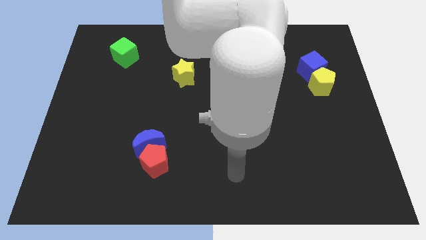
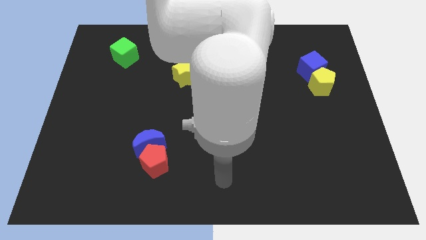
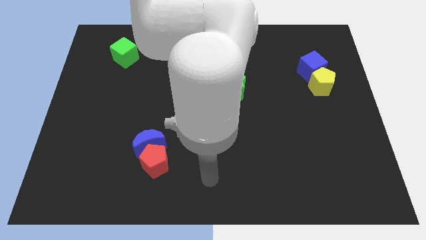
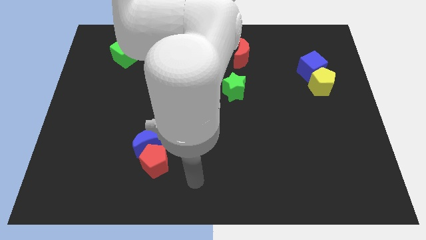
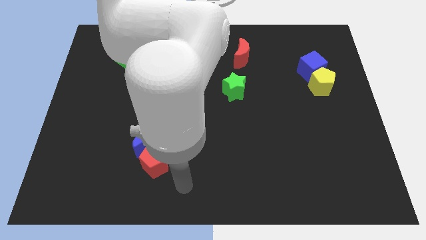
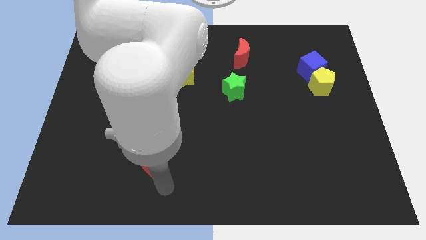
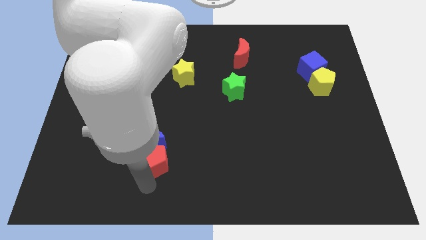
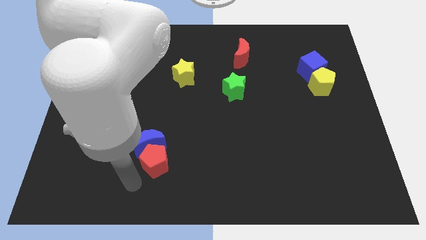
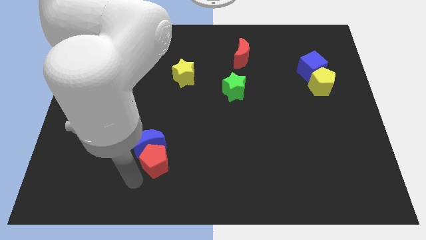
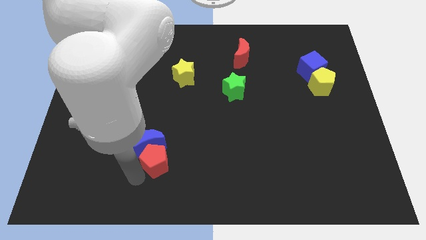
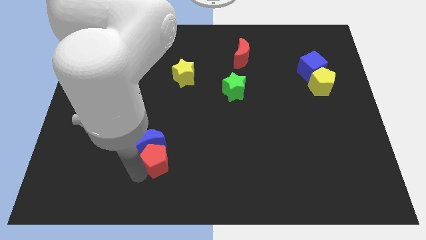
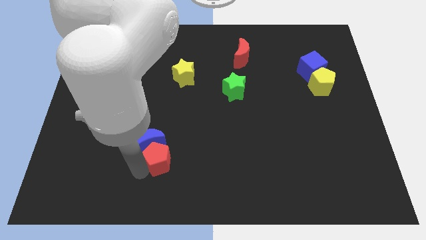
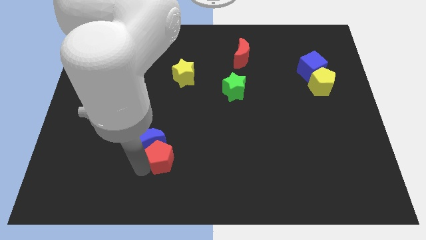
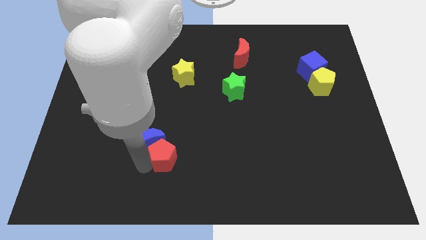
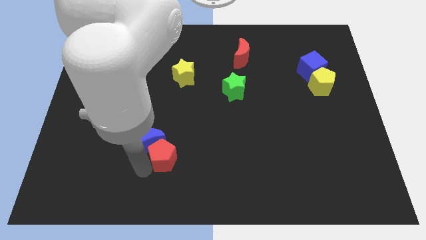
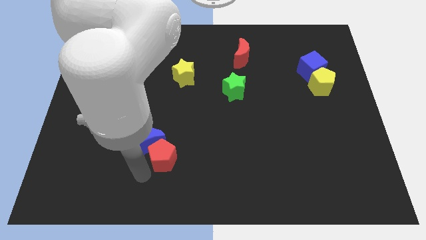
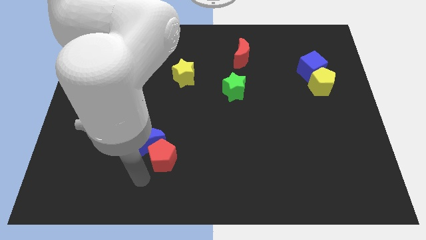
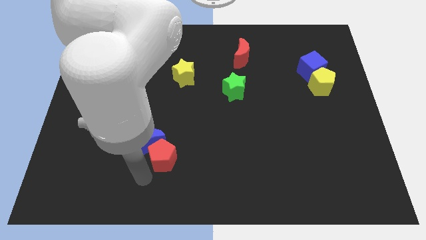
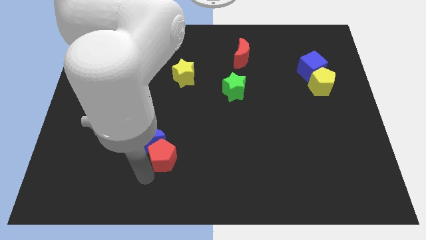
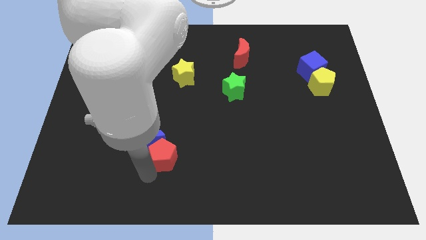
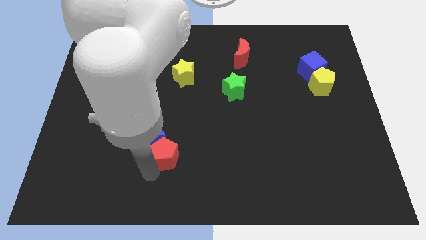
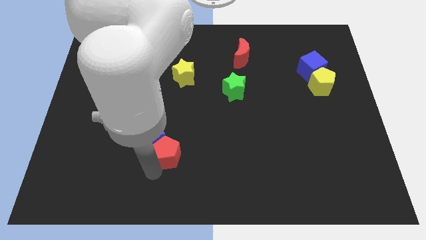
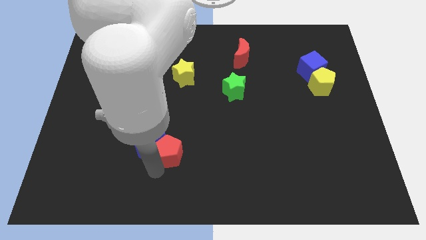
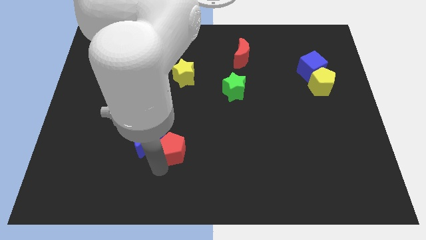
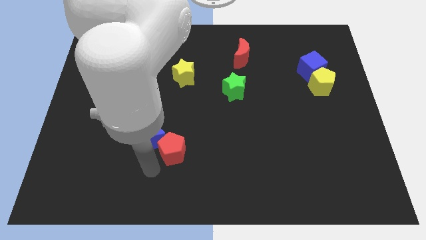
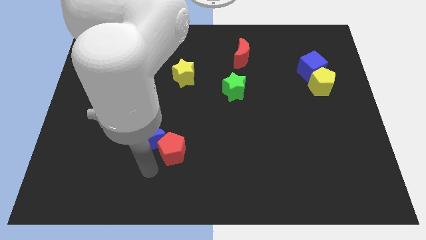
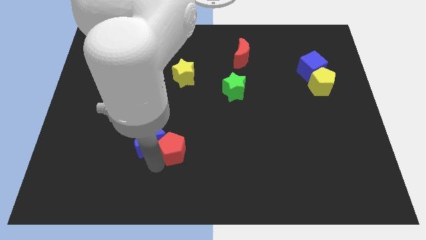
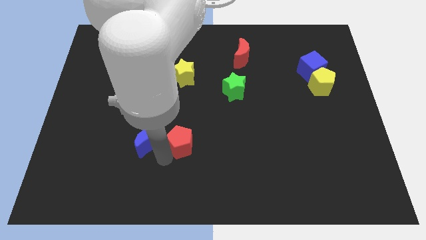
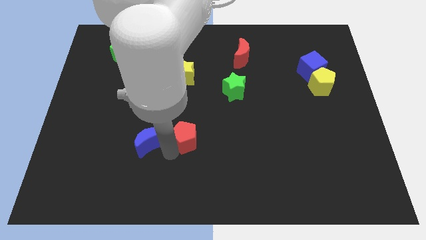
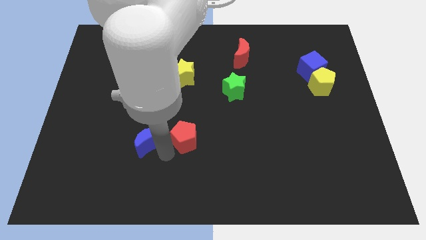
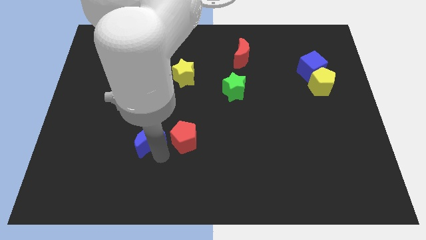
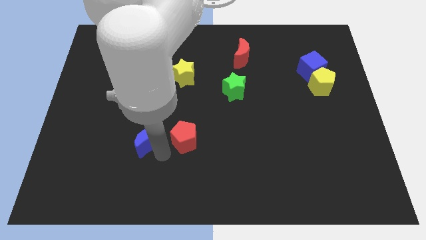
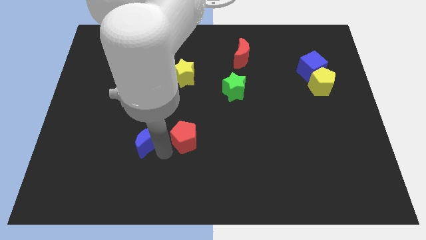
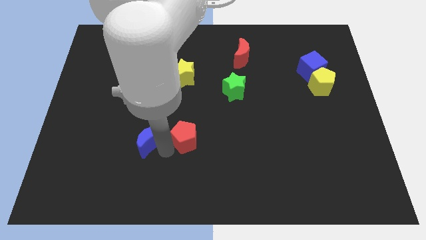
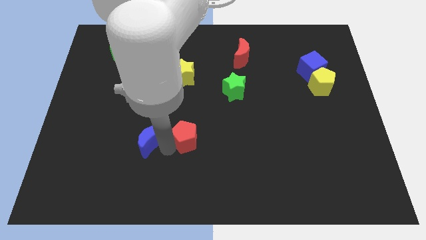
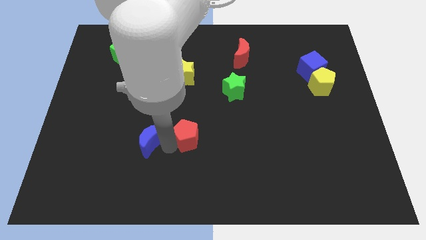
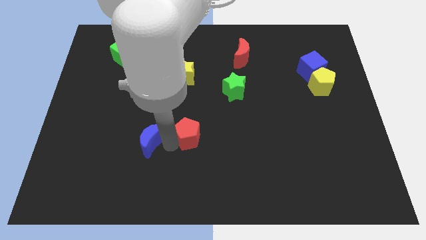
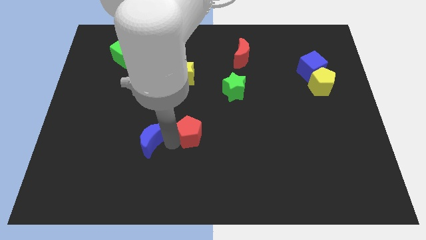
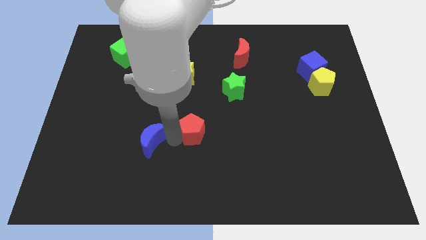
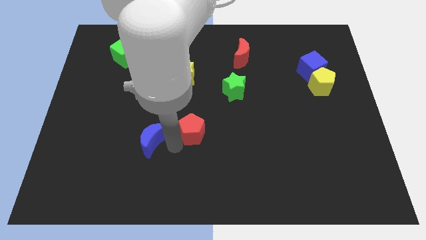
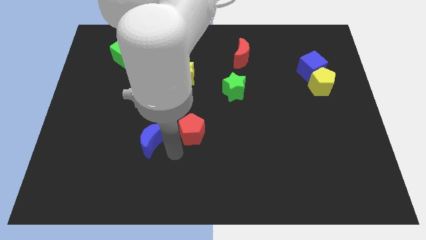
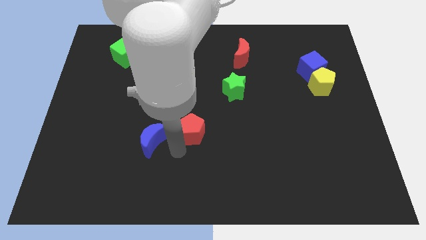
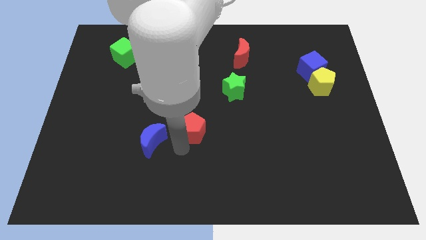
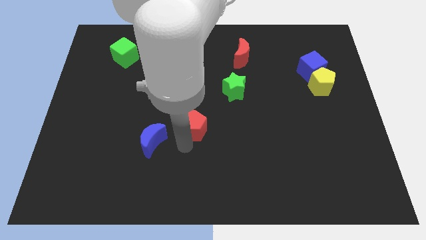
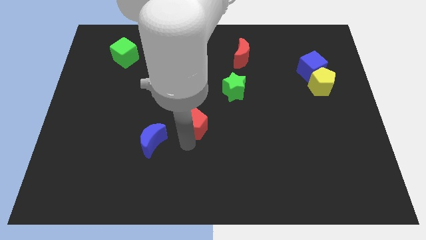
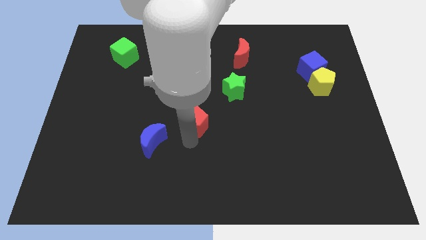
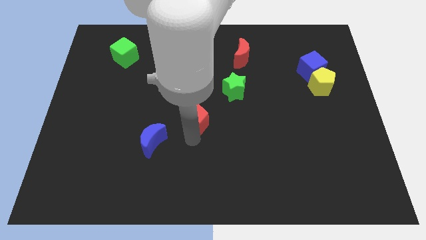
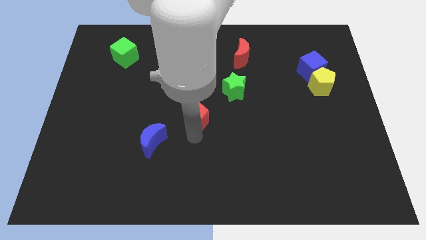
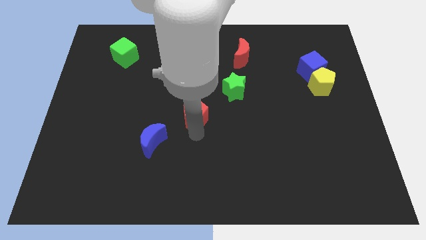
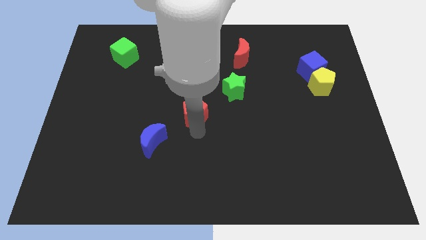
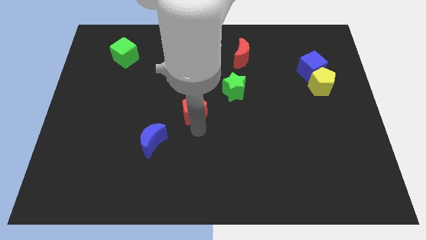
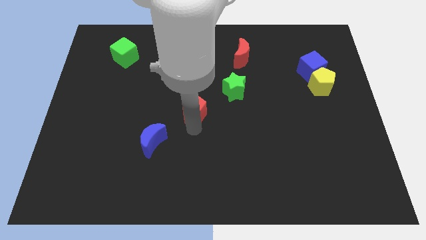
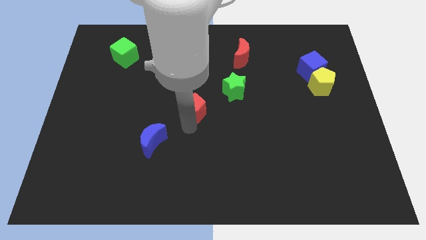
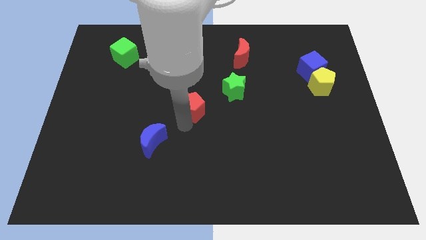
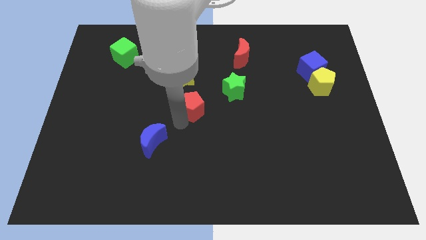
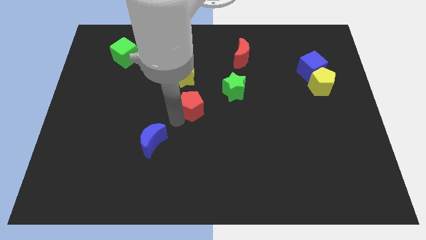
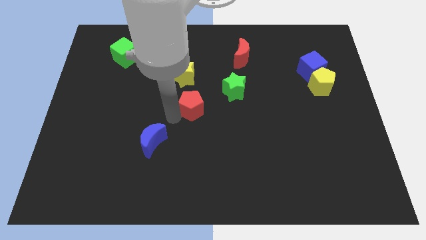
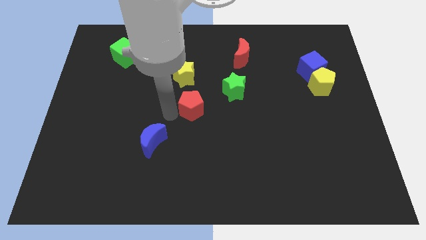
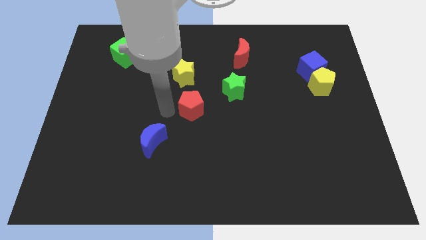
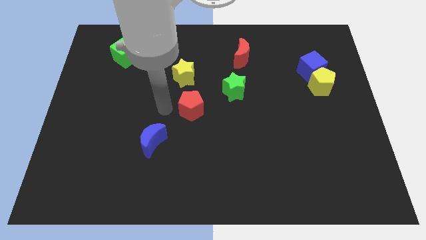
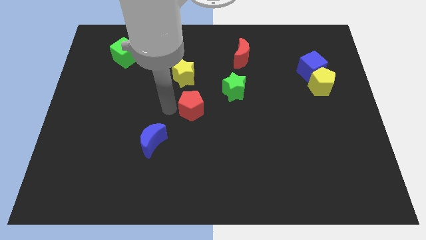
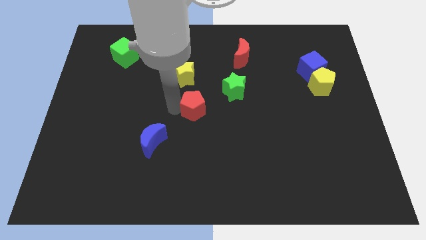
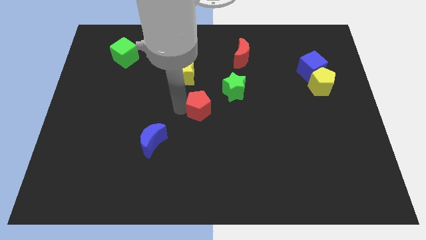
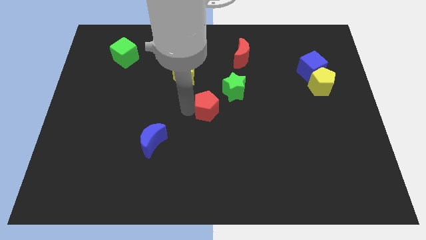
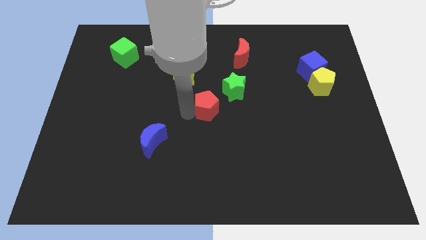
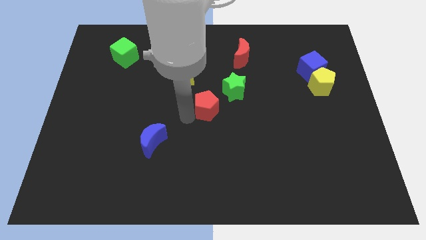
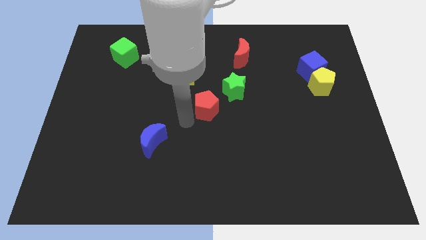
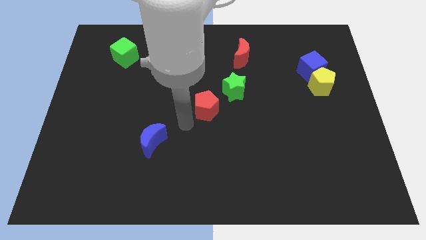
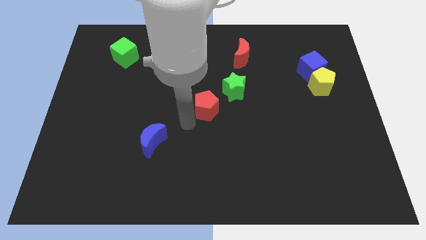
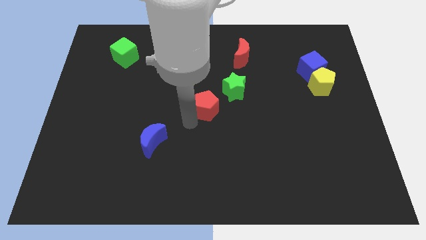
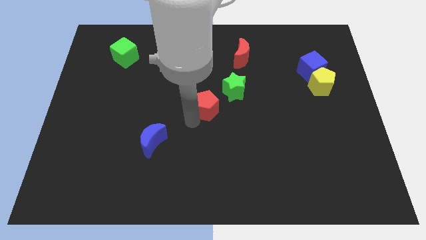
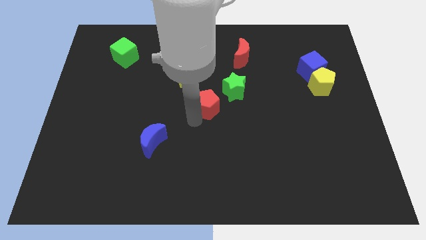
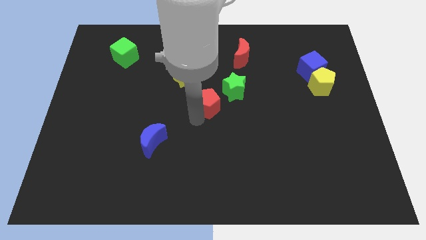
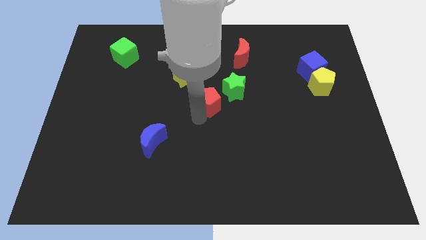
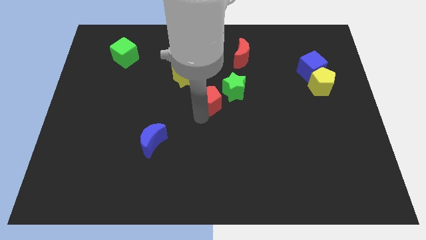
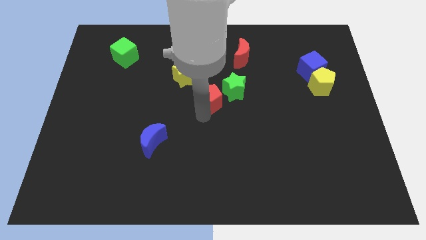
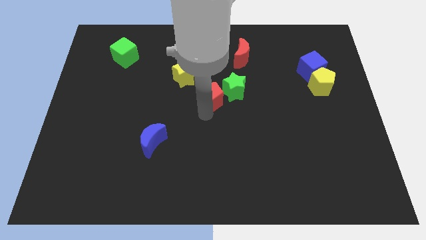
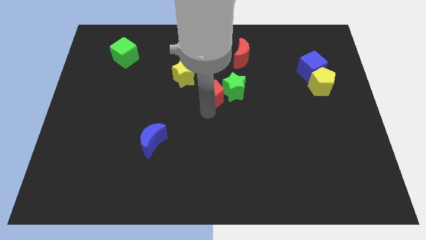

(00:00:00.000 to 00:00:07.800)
slide the red pentagon towards the green star
